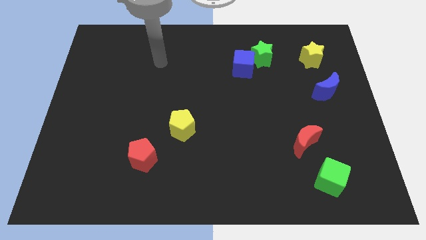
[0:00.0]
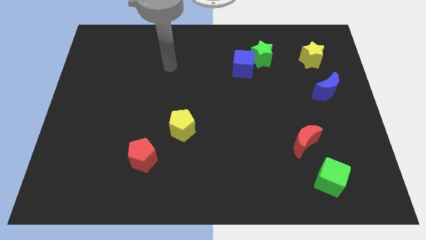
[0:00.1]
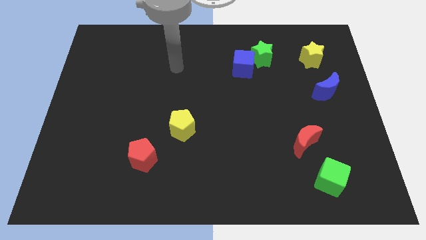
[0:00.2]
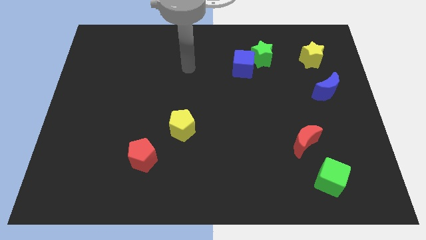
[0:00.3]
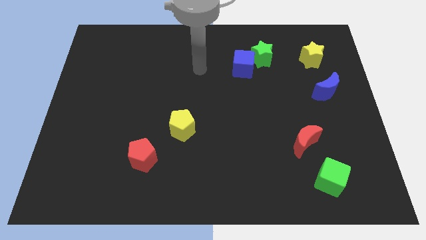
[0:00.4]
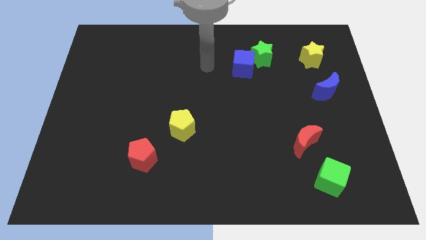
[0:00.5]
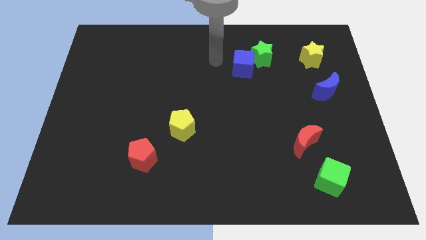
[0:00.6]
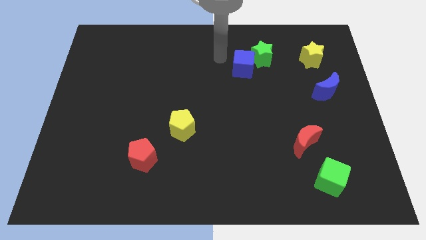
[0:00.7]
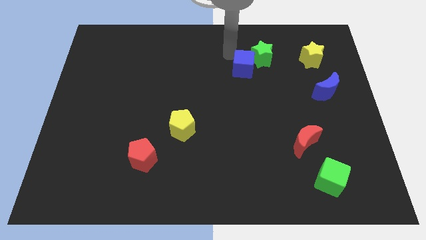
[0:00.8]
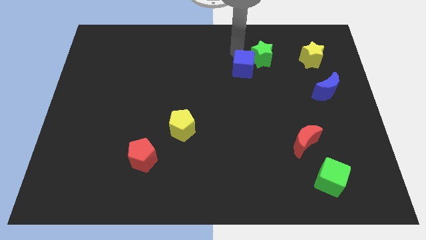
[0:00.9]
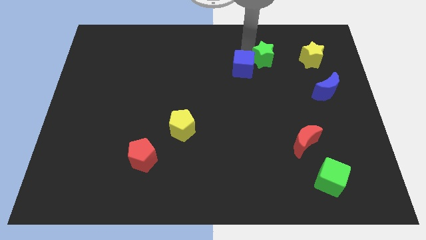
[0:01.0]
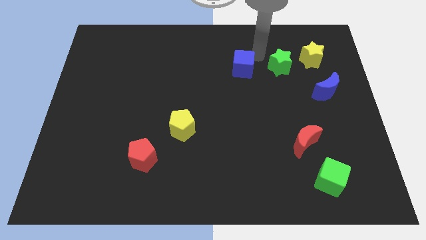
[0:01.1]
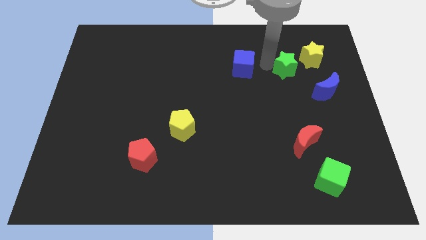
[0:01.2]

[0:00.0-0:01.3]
separate the blue cube from the green star

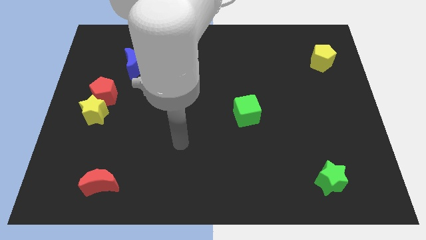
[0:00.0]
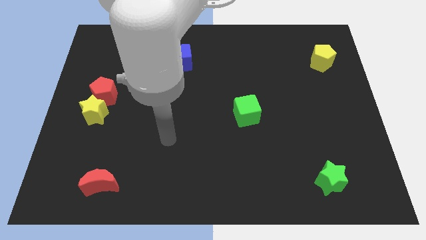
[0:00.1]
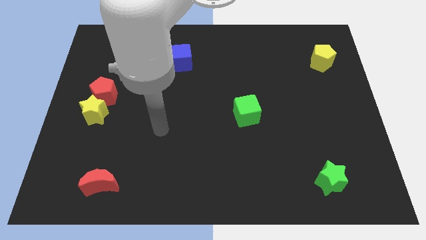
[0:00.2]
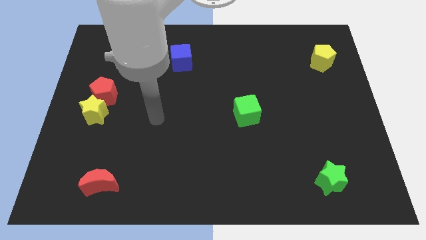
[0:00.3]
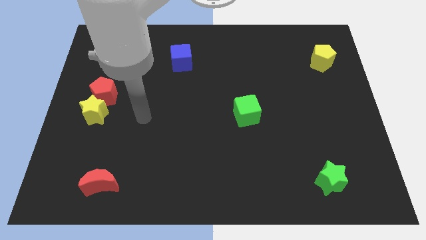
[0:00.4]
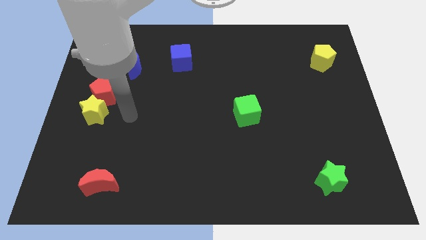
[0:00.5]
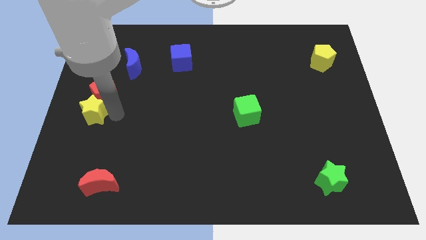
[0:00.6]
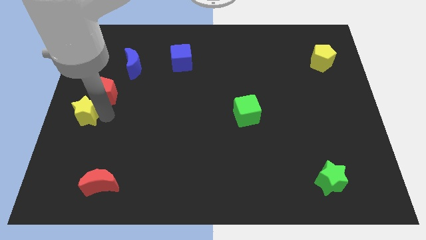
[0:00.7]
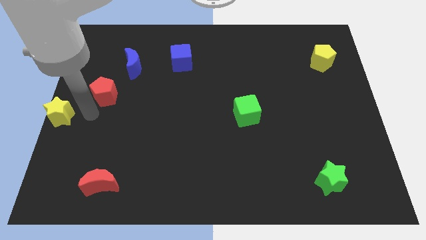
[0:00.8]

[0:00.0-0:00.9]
move the red pentagon away from the yellow star

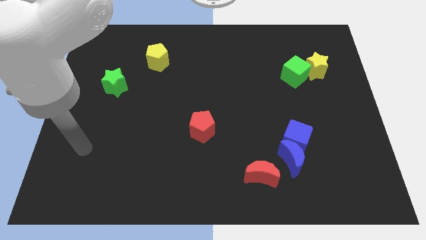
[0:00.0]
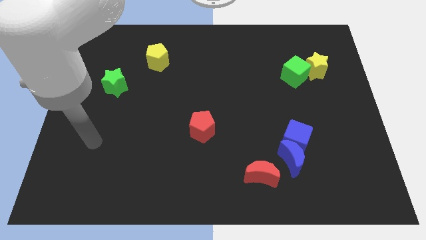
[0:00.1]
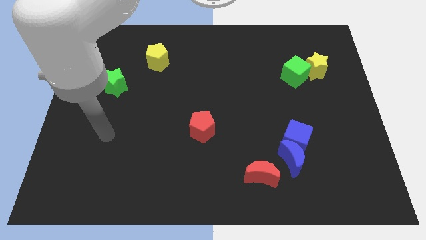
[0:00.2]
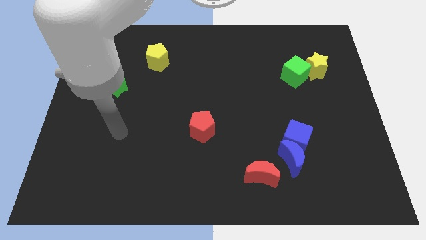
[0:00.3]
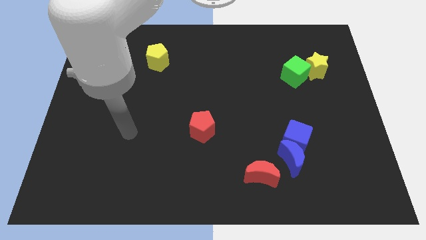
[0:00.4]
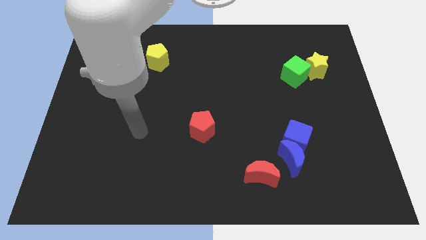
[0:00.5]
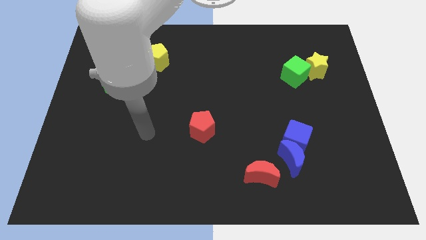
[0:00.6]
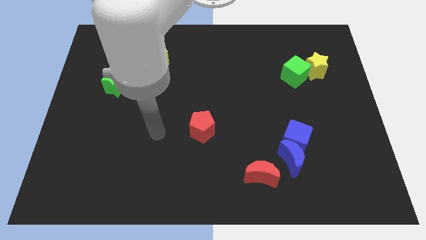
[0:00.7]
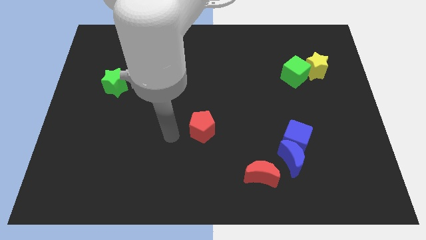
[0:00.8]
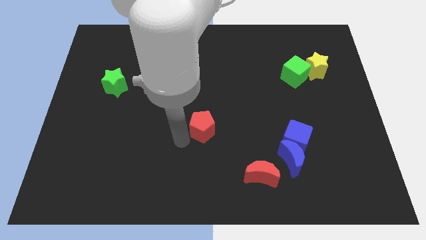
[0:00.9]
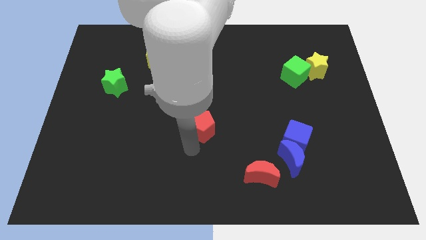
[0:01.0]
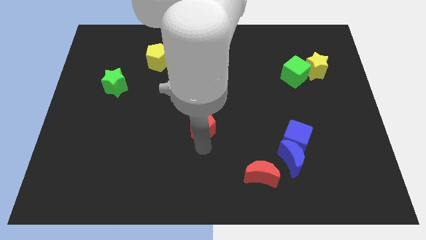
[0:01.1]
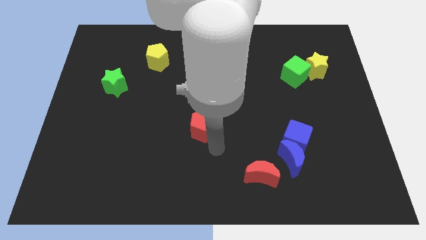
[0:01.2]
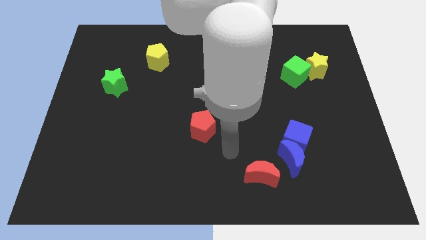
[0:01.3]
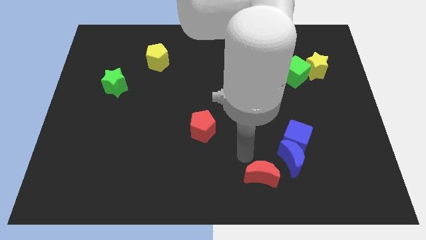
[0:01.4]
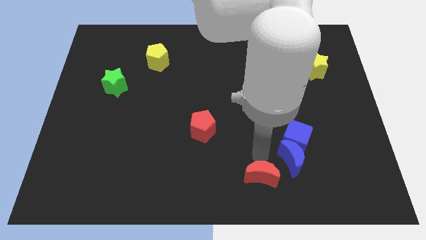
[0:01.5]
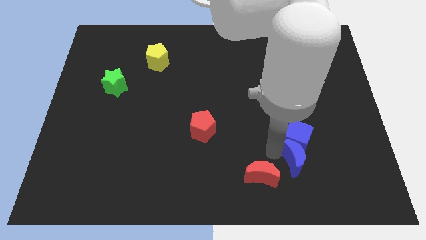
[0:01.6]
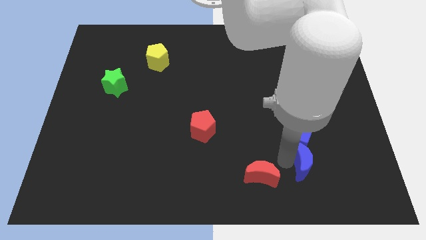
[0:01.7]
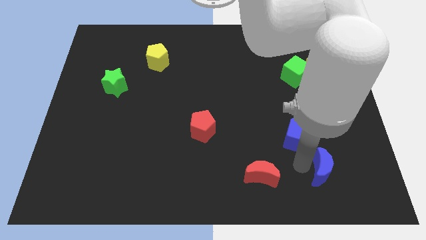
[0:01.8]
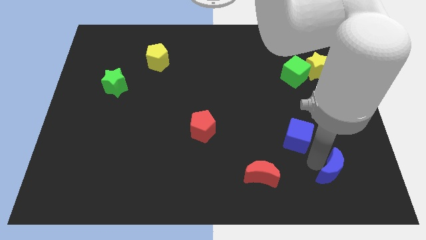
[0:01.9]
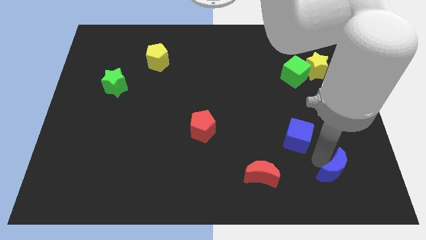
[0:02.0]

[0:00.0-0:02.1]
move the blue cube away from the blue moon

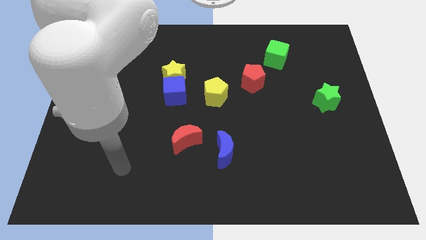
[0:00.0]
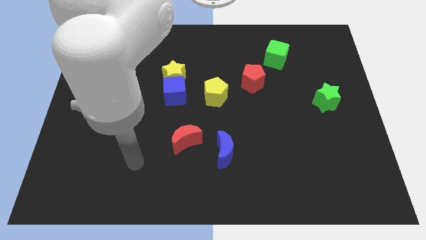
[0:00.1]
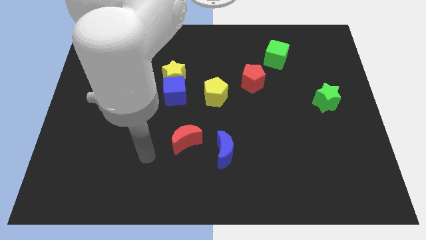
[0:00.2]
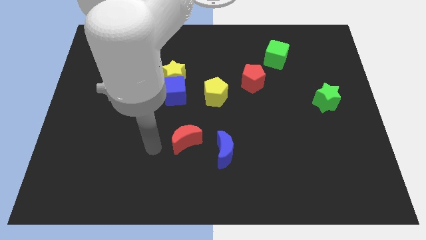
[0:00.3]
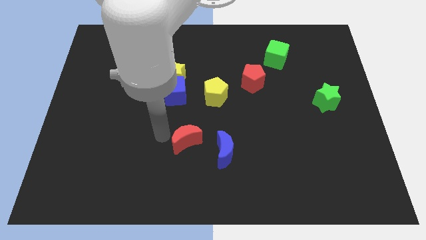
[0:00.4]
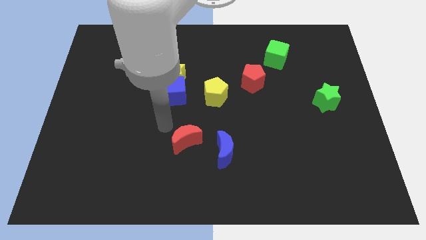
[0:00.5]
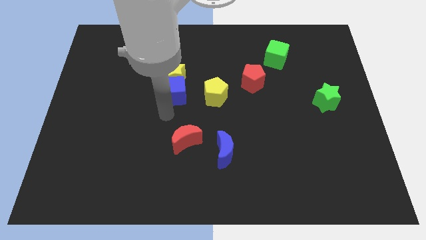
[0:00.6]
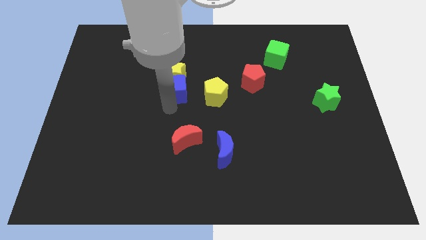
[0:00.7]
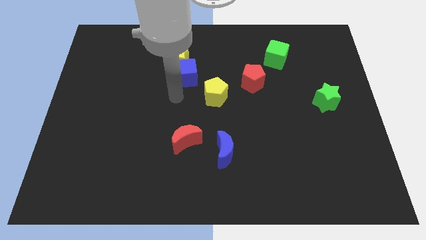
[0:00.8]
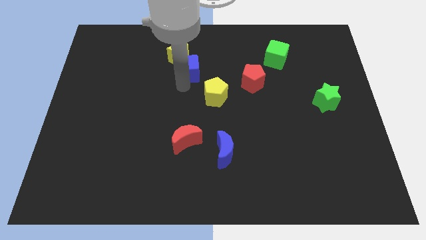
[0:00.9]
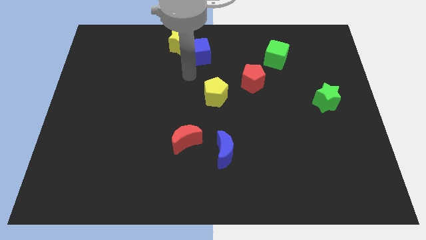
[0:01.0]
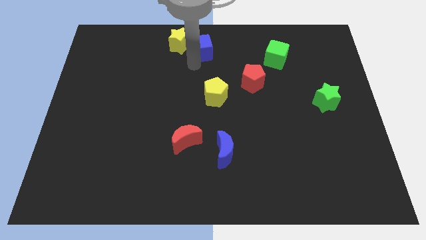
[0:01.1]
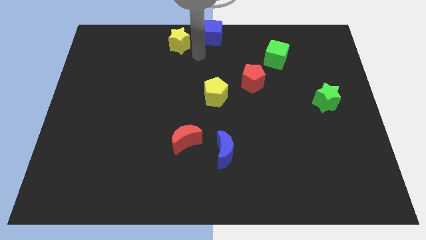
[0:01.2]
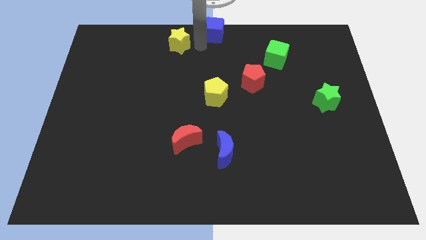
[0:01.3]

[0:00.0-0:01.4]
separate the yellow star from the blue cube

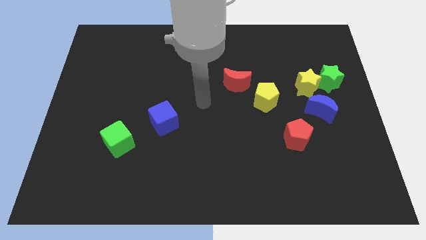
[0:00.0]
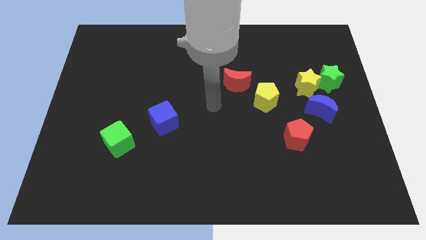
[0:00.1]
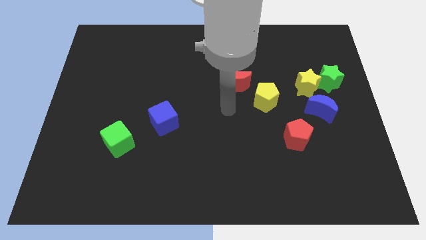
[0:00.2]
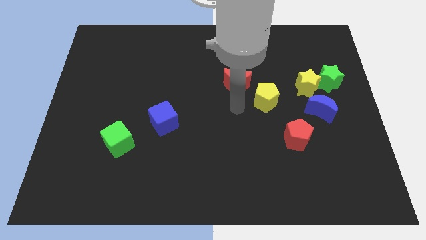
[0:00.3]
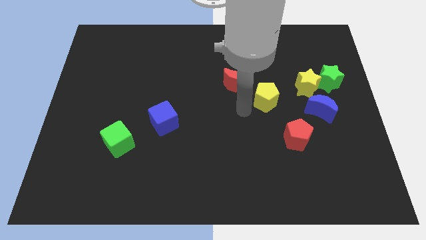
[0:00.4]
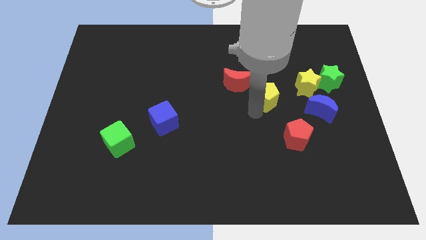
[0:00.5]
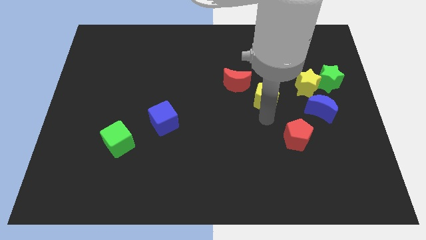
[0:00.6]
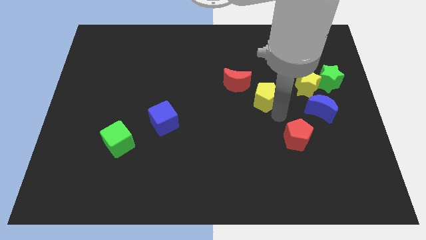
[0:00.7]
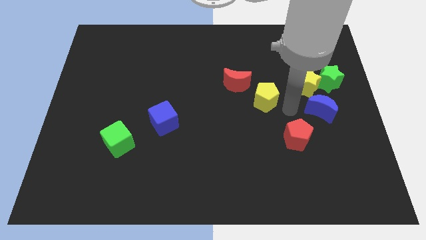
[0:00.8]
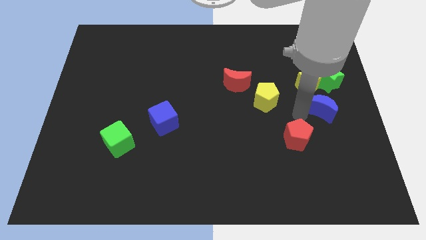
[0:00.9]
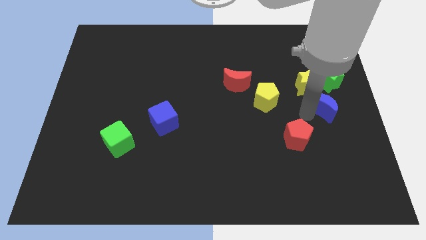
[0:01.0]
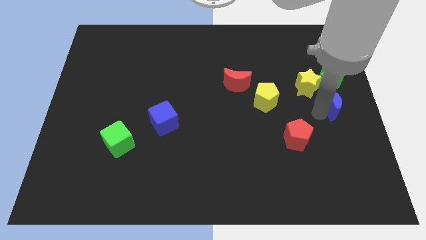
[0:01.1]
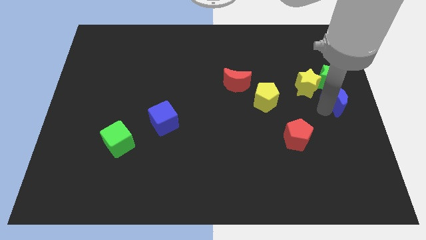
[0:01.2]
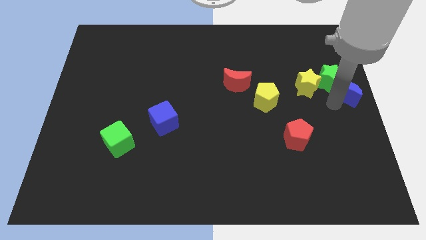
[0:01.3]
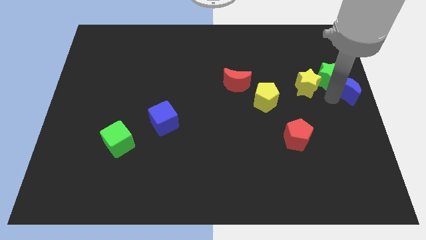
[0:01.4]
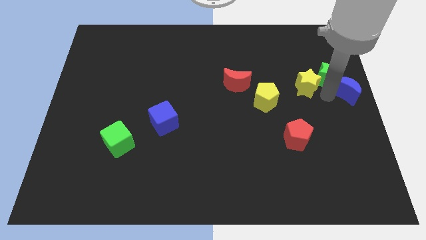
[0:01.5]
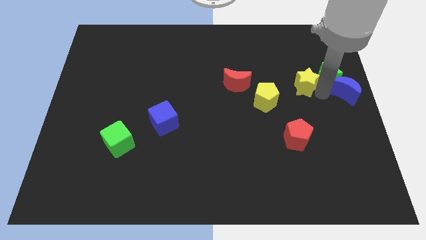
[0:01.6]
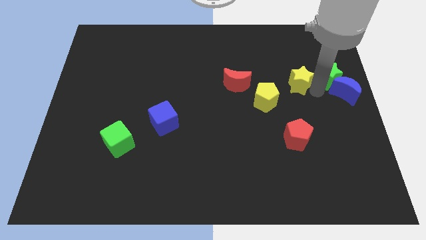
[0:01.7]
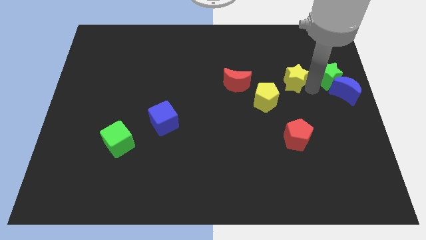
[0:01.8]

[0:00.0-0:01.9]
move the yellow star away from the green star and blue moon

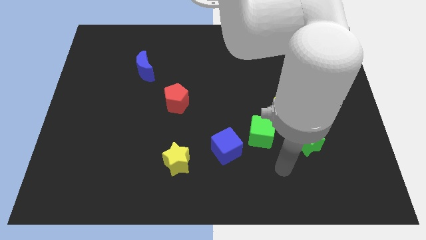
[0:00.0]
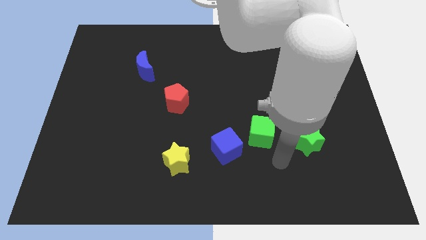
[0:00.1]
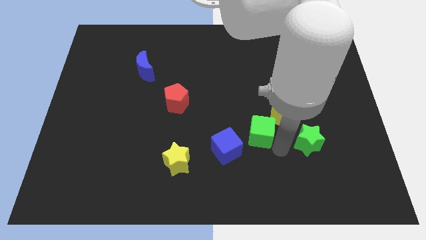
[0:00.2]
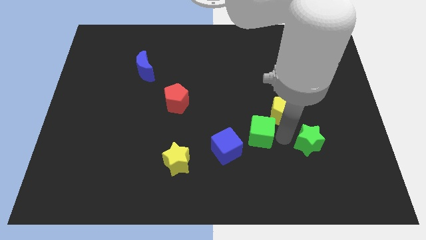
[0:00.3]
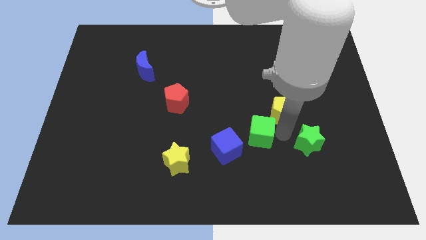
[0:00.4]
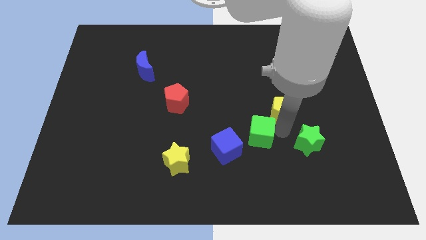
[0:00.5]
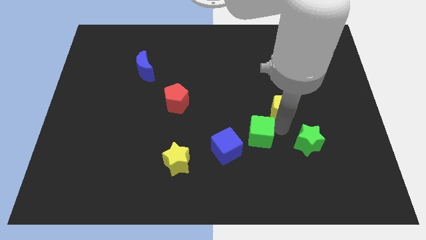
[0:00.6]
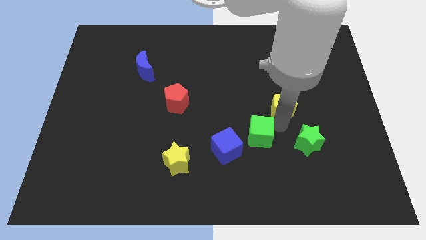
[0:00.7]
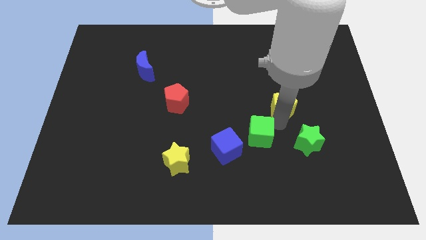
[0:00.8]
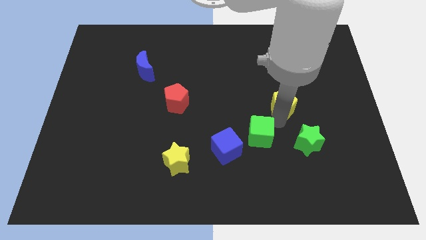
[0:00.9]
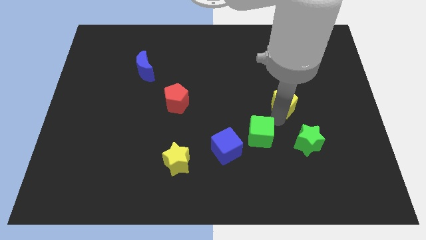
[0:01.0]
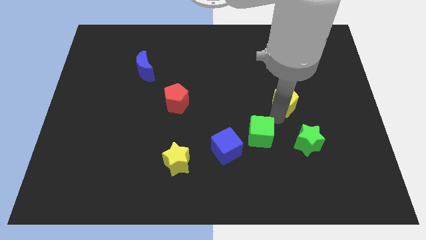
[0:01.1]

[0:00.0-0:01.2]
pull the yellow pentagon apart from the green cube and green star

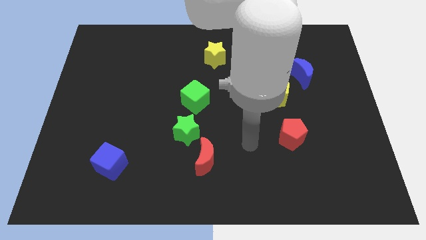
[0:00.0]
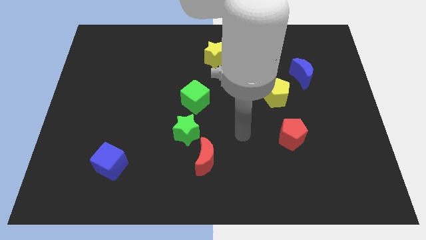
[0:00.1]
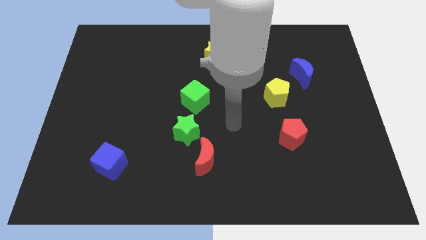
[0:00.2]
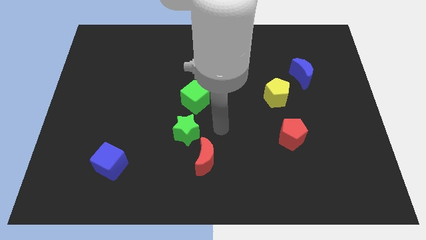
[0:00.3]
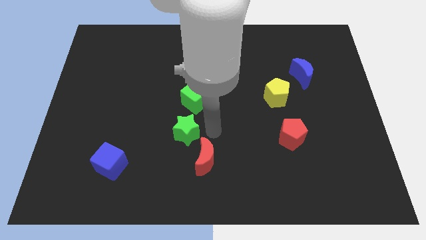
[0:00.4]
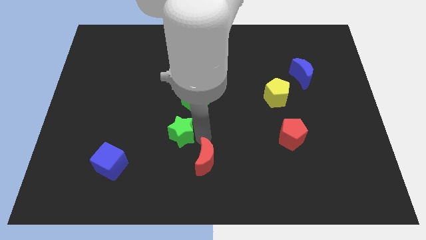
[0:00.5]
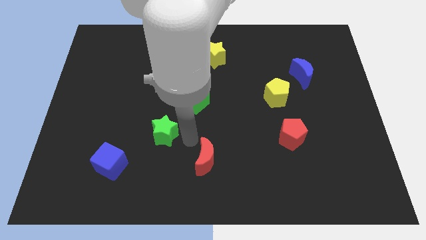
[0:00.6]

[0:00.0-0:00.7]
pull the red moon apart from the green star
